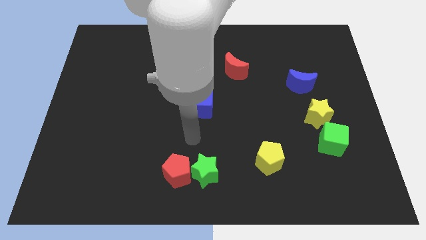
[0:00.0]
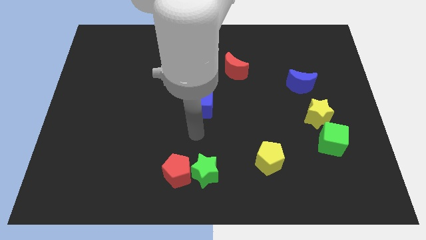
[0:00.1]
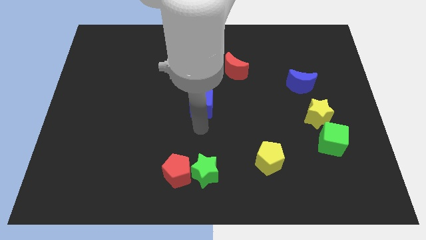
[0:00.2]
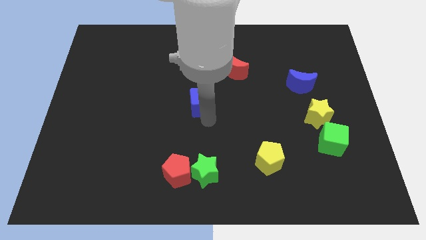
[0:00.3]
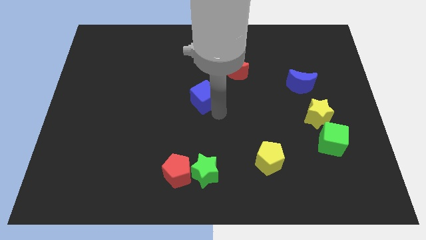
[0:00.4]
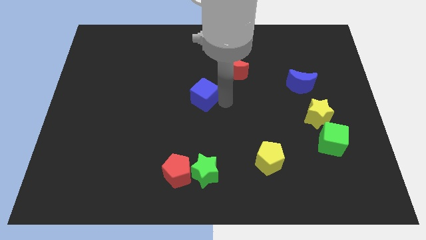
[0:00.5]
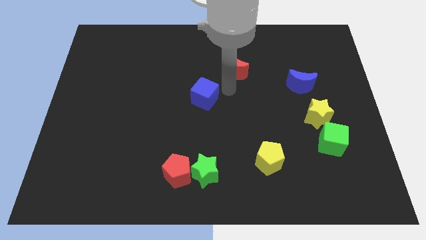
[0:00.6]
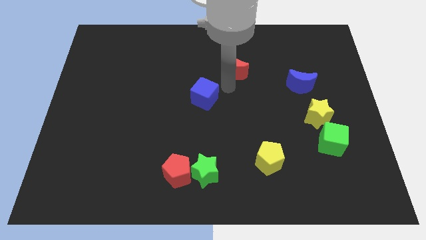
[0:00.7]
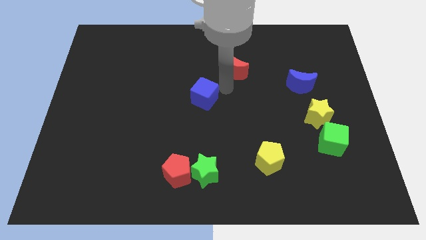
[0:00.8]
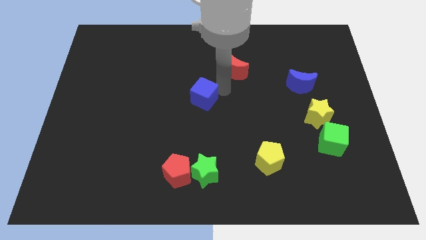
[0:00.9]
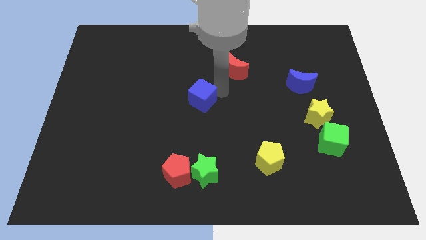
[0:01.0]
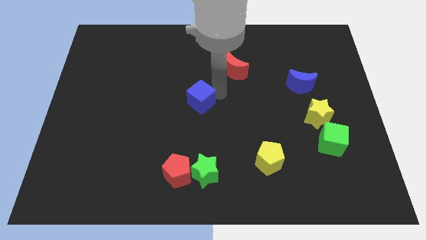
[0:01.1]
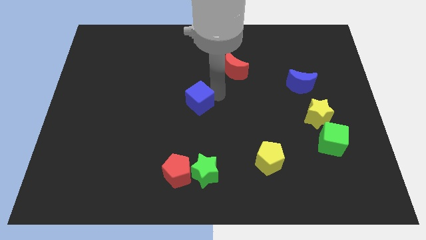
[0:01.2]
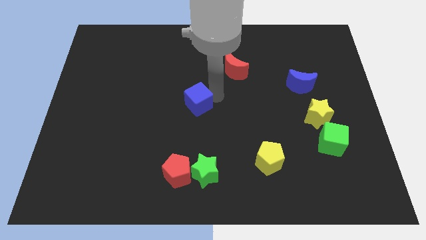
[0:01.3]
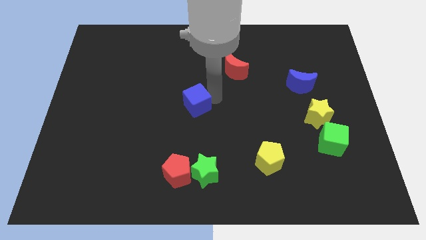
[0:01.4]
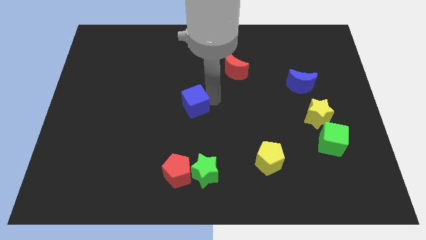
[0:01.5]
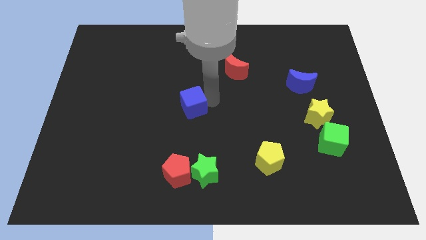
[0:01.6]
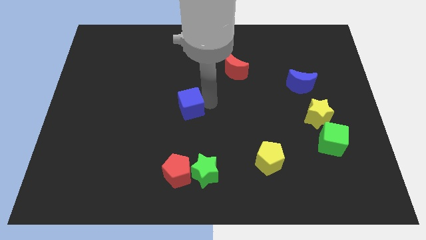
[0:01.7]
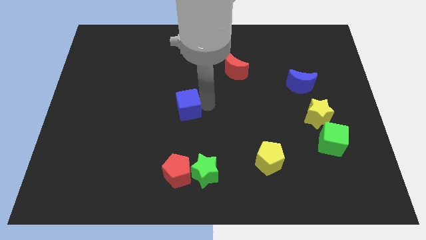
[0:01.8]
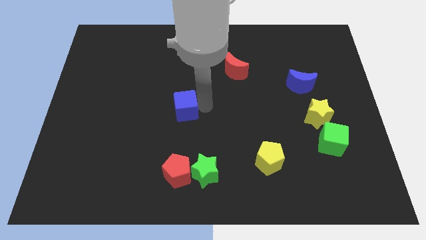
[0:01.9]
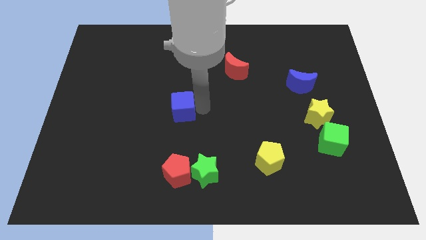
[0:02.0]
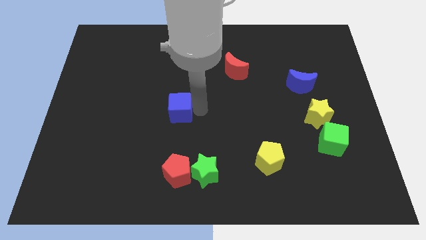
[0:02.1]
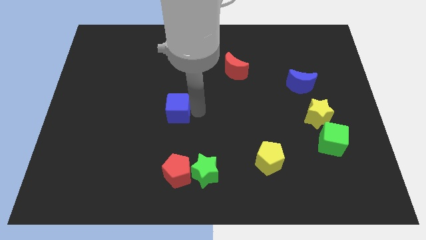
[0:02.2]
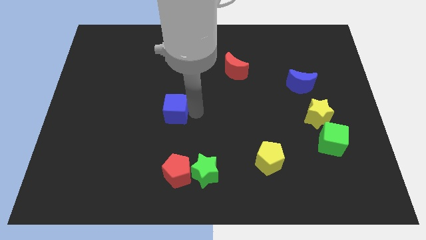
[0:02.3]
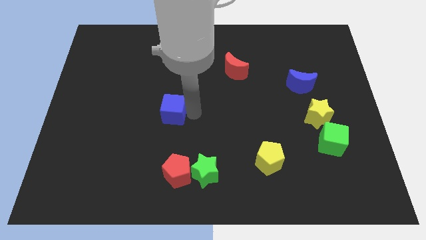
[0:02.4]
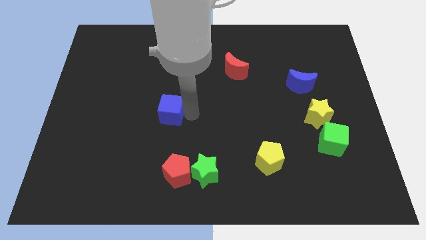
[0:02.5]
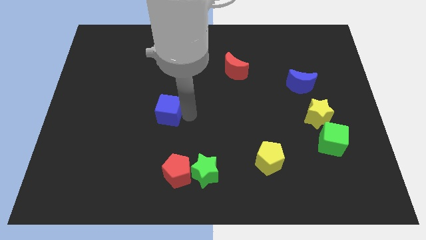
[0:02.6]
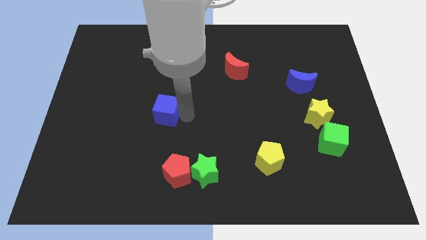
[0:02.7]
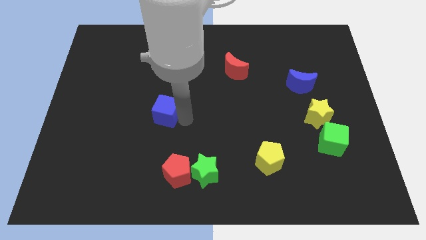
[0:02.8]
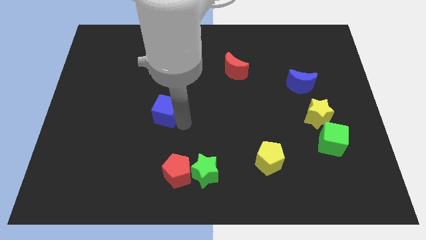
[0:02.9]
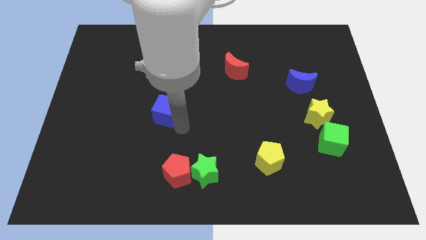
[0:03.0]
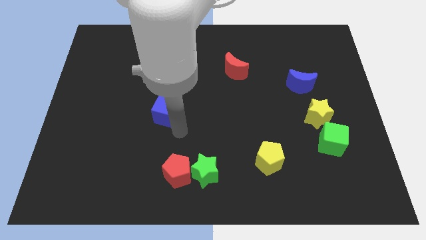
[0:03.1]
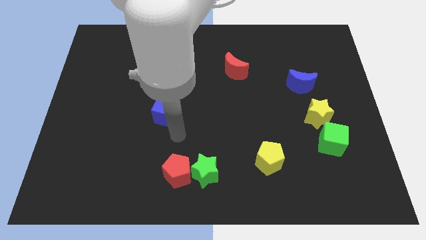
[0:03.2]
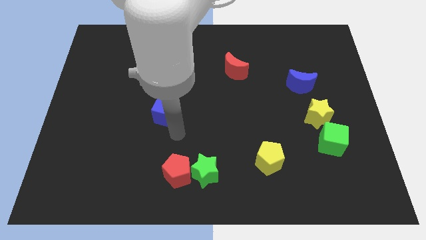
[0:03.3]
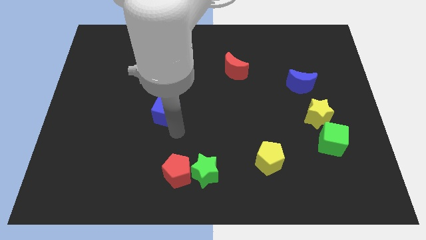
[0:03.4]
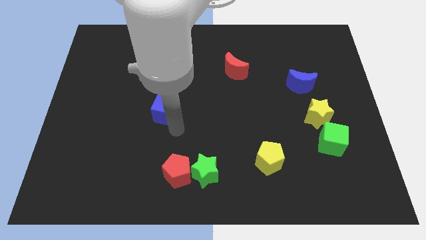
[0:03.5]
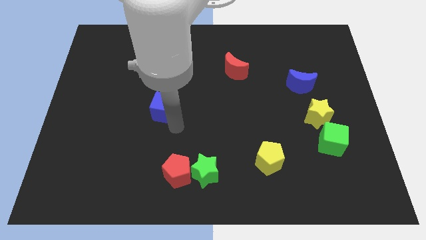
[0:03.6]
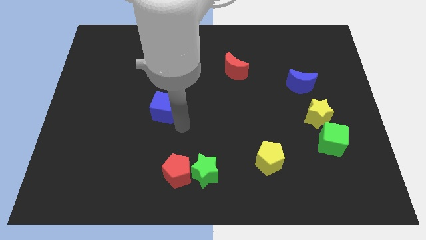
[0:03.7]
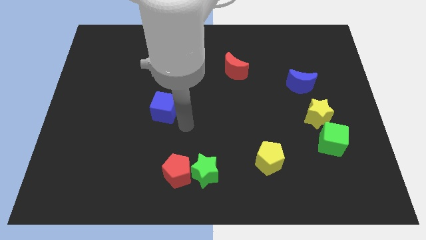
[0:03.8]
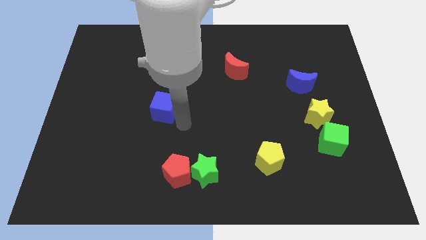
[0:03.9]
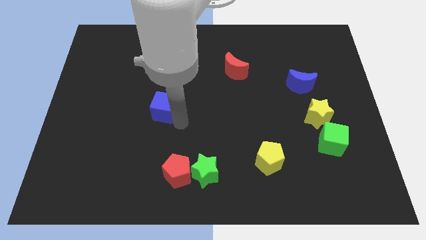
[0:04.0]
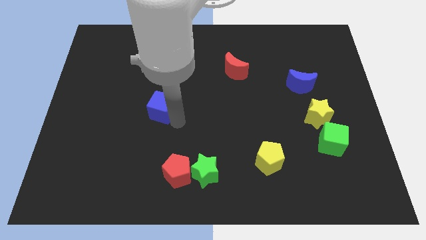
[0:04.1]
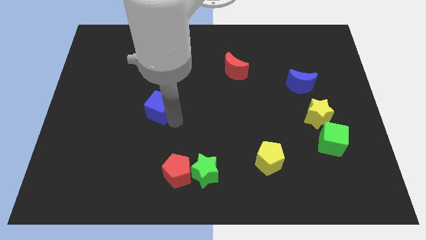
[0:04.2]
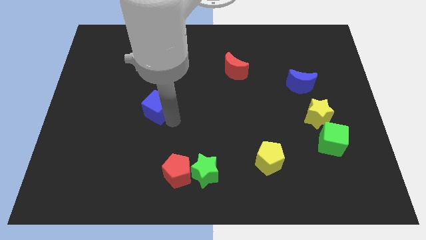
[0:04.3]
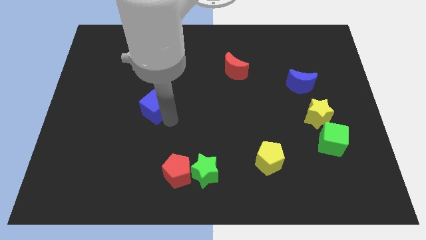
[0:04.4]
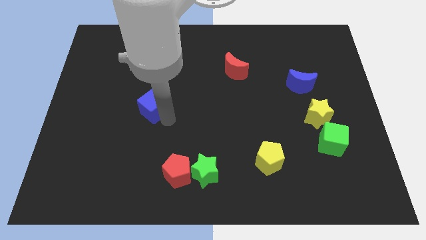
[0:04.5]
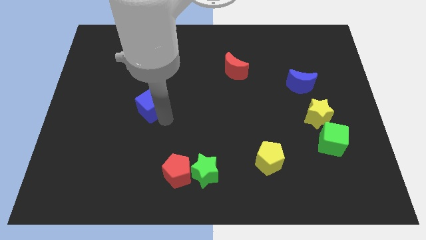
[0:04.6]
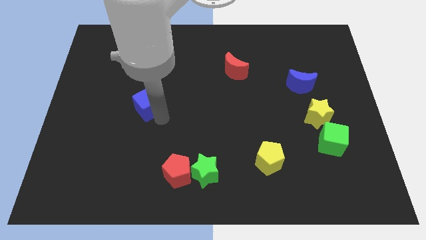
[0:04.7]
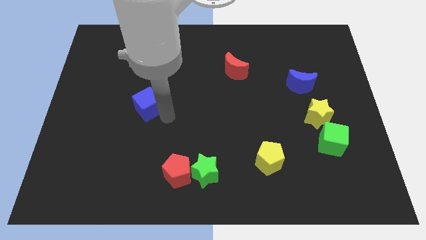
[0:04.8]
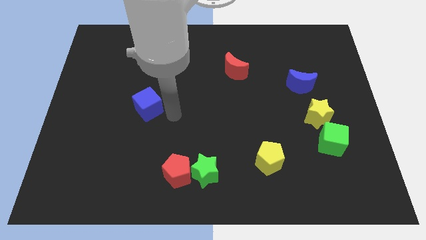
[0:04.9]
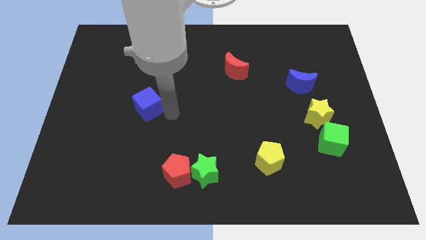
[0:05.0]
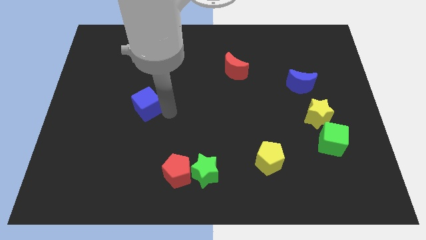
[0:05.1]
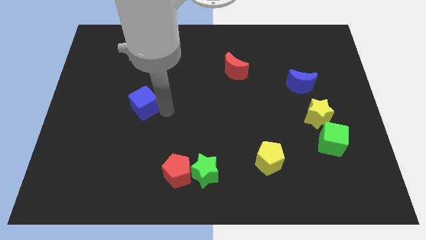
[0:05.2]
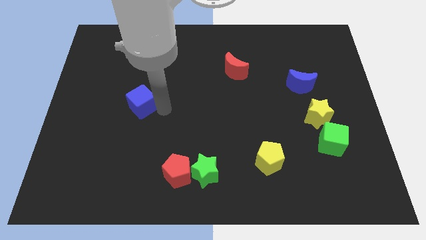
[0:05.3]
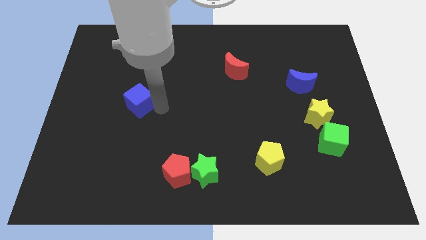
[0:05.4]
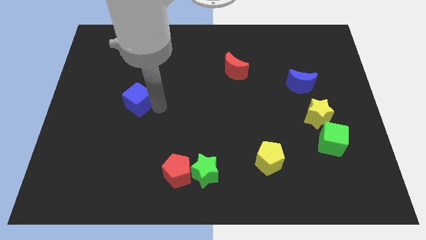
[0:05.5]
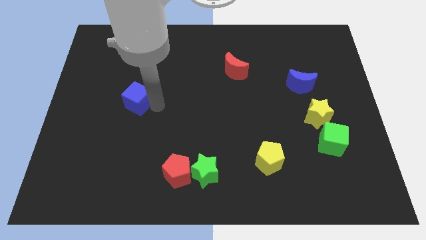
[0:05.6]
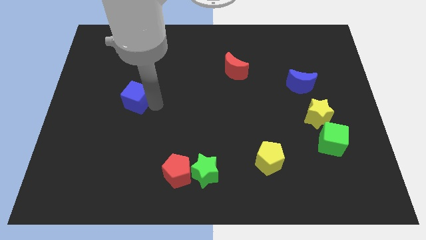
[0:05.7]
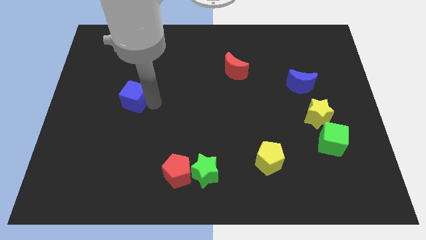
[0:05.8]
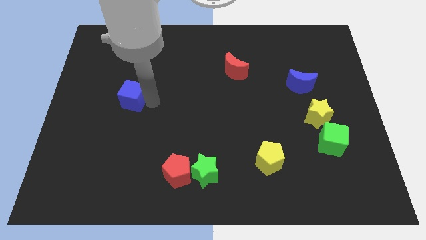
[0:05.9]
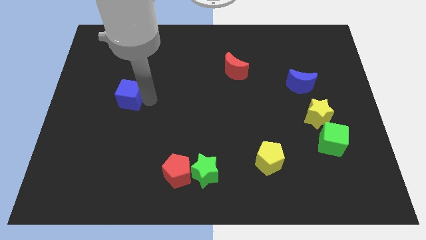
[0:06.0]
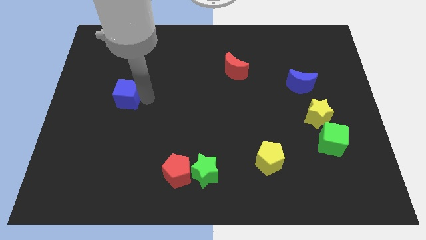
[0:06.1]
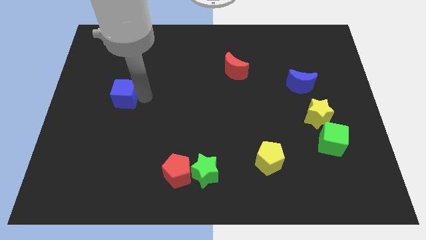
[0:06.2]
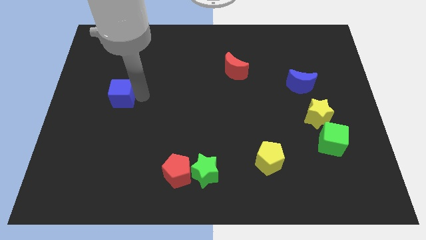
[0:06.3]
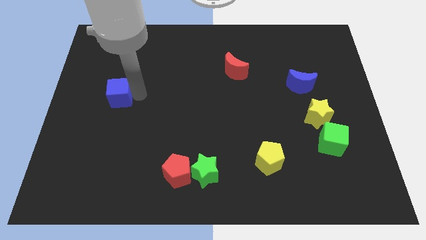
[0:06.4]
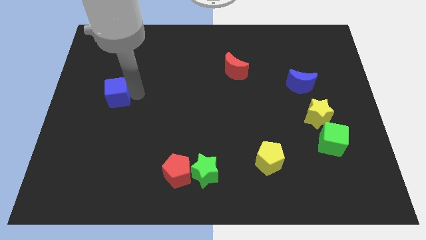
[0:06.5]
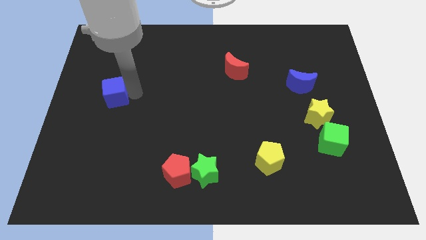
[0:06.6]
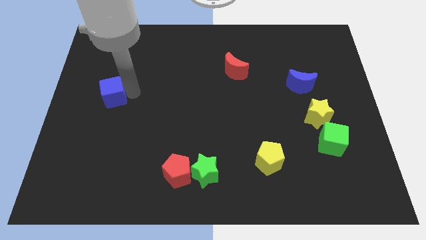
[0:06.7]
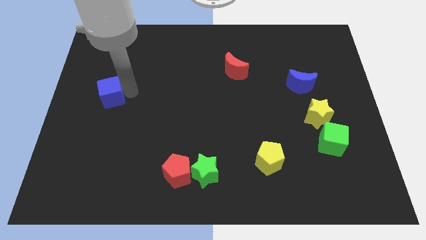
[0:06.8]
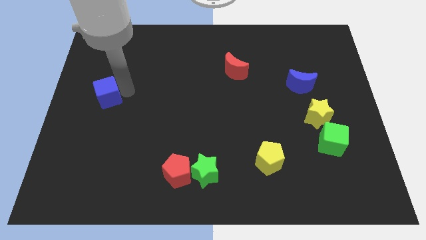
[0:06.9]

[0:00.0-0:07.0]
move the blue cube to the left side of the board

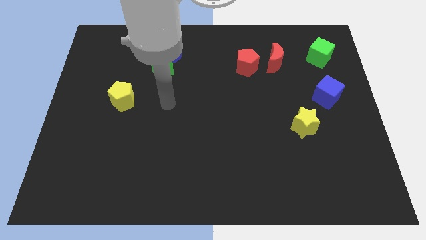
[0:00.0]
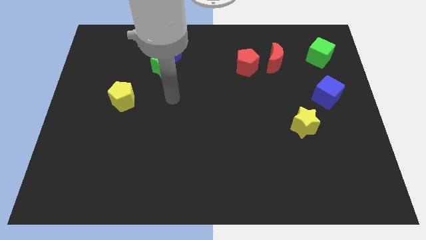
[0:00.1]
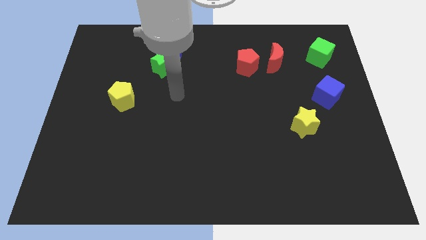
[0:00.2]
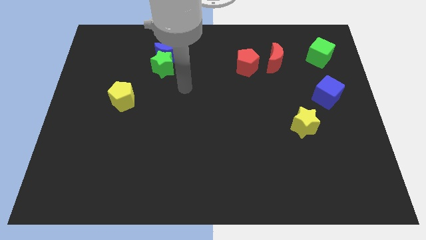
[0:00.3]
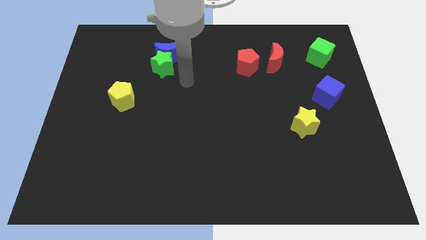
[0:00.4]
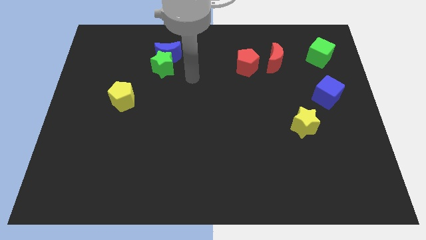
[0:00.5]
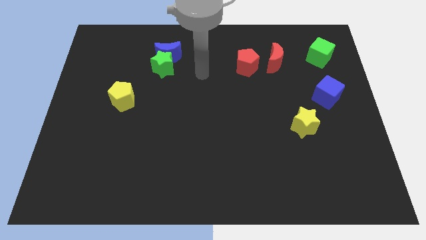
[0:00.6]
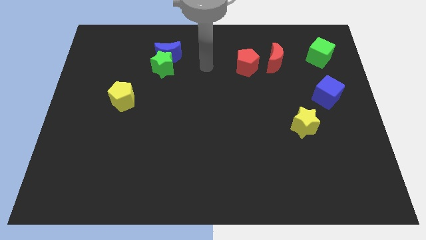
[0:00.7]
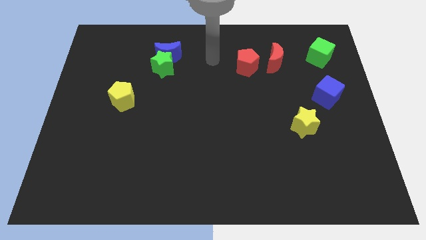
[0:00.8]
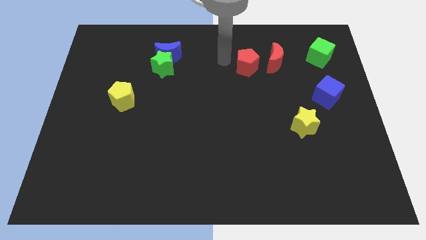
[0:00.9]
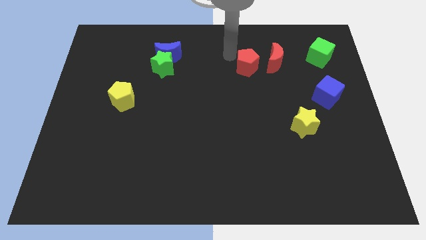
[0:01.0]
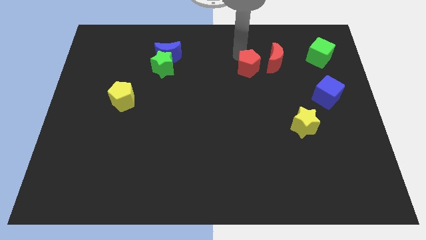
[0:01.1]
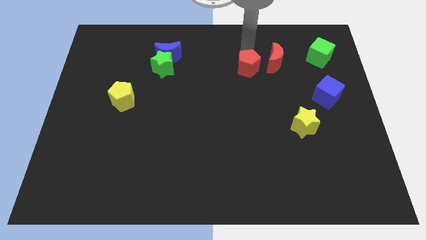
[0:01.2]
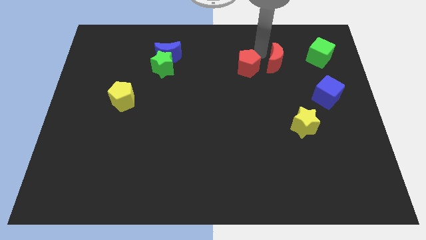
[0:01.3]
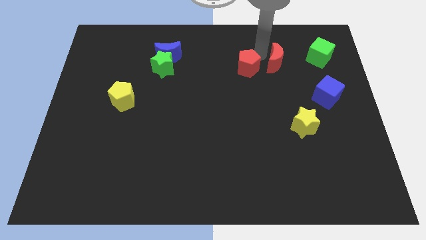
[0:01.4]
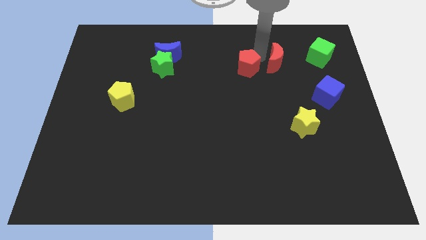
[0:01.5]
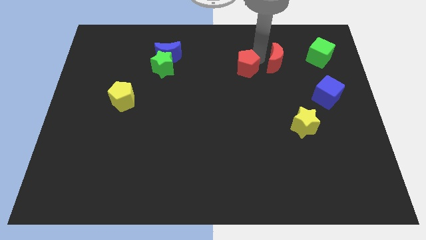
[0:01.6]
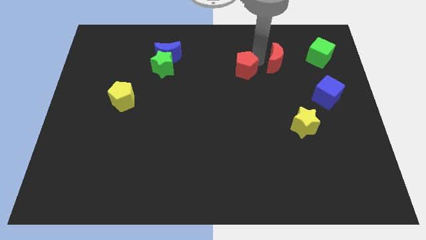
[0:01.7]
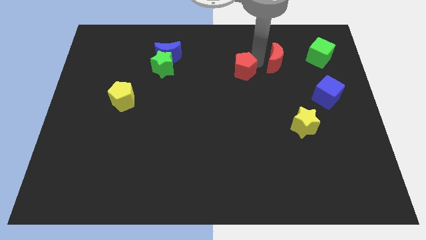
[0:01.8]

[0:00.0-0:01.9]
move the red pentagon to the center
